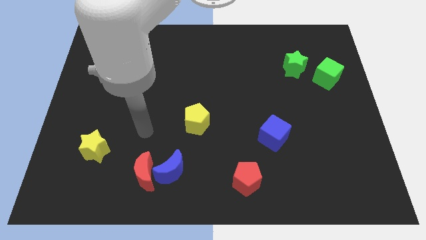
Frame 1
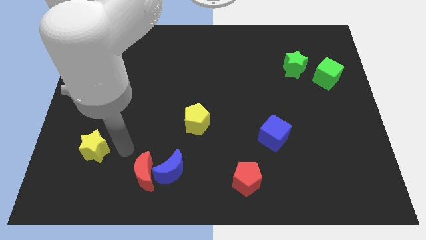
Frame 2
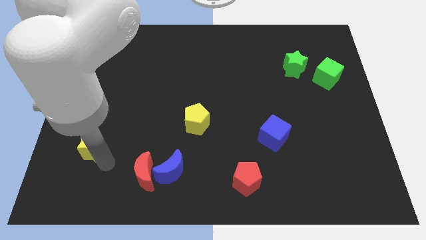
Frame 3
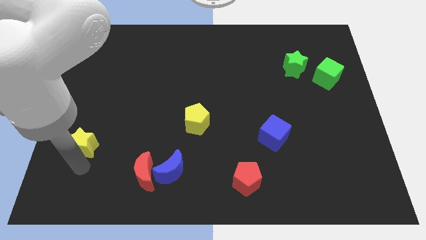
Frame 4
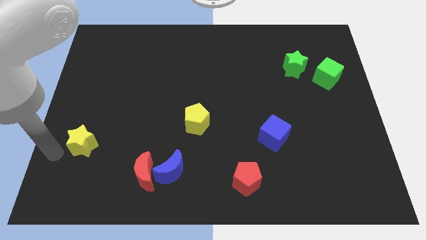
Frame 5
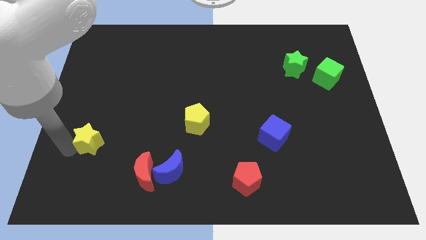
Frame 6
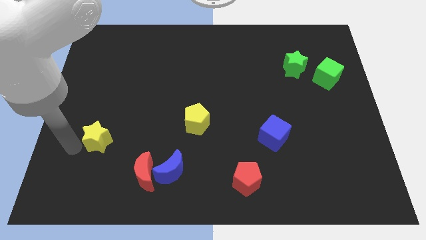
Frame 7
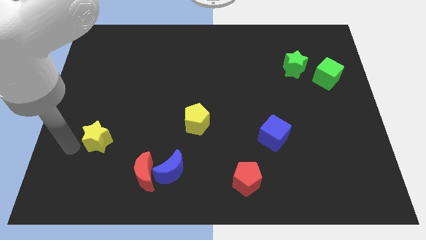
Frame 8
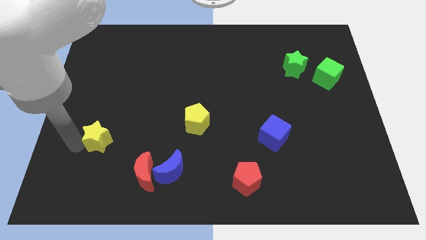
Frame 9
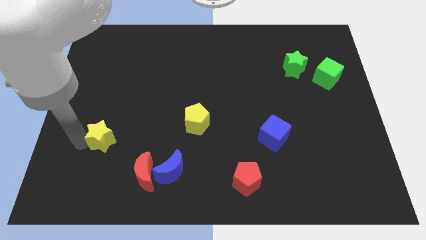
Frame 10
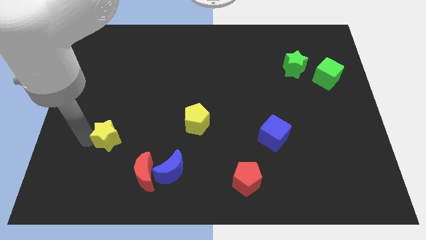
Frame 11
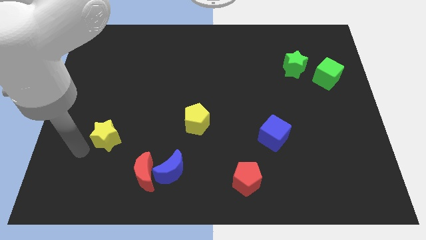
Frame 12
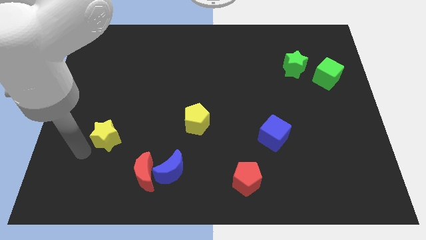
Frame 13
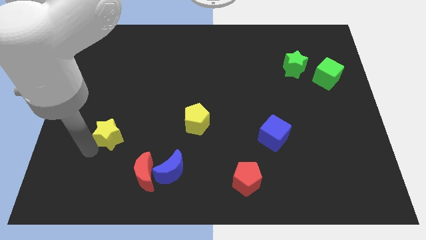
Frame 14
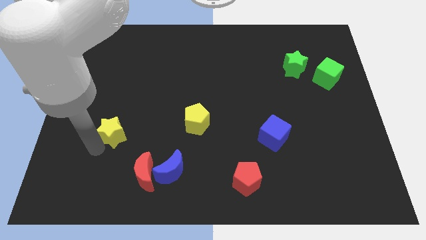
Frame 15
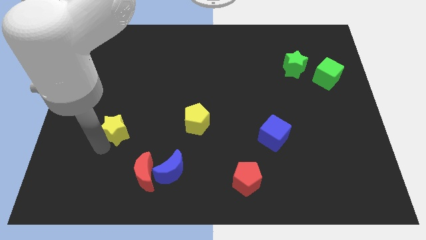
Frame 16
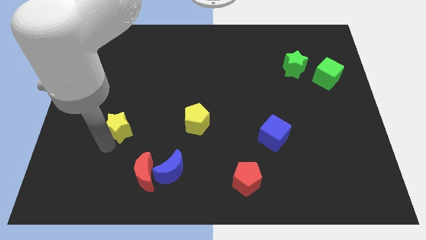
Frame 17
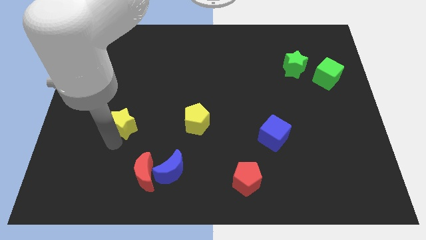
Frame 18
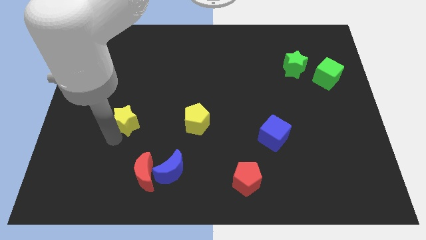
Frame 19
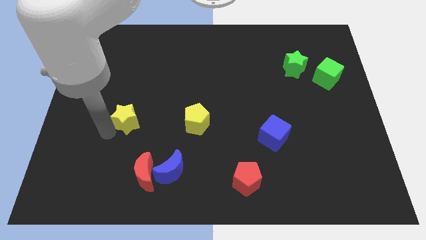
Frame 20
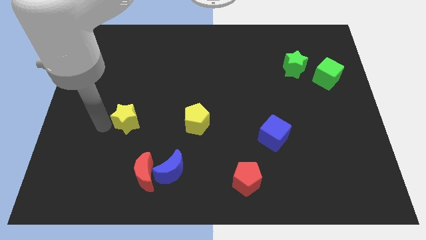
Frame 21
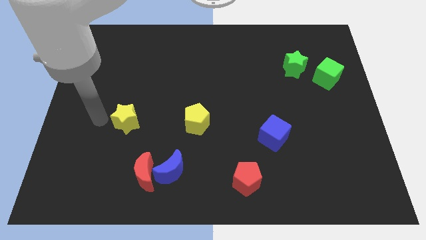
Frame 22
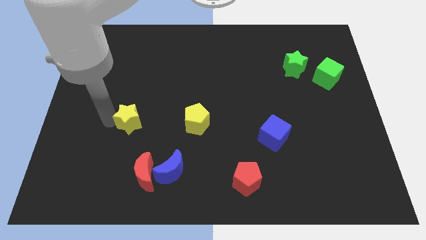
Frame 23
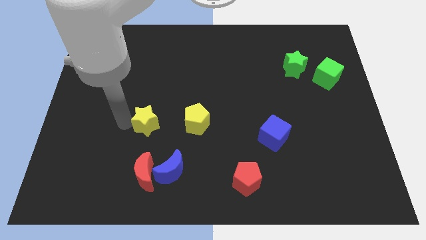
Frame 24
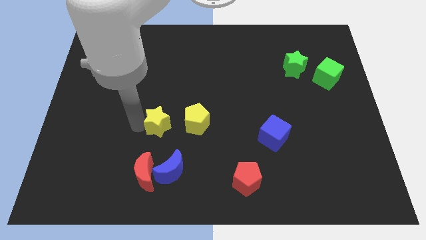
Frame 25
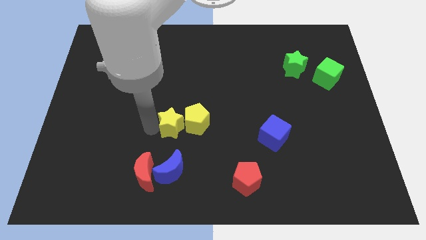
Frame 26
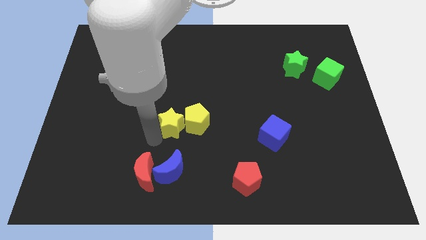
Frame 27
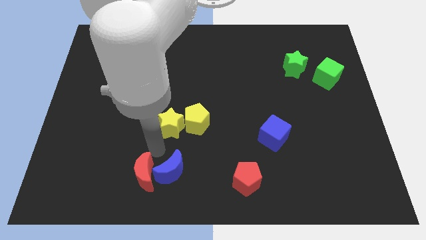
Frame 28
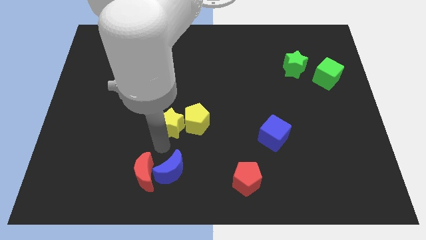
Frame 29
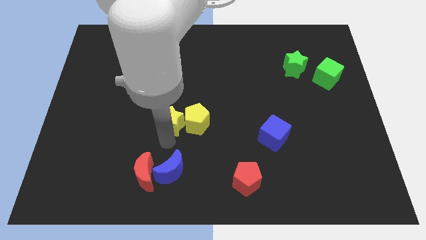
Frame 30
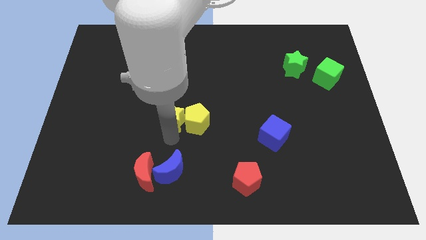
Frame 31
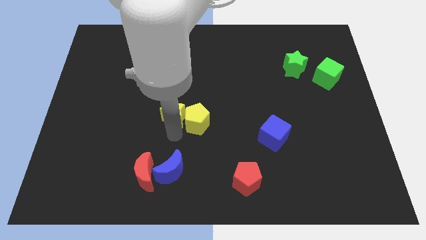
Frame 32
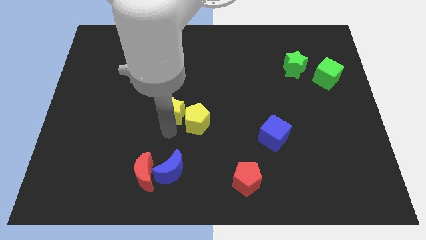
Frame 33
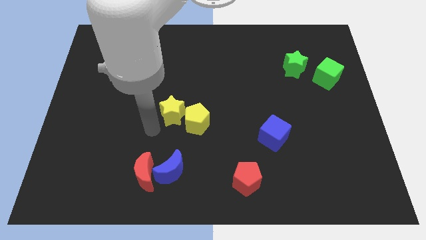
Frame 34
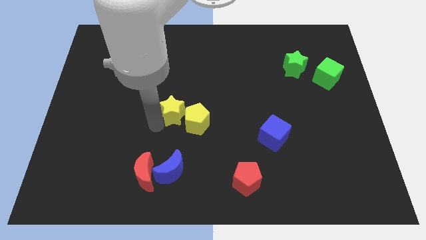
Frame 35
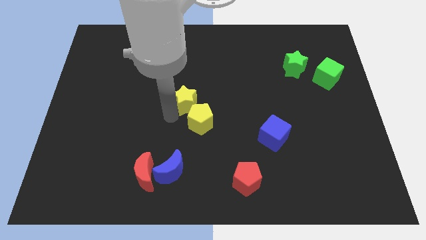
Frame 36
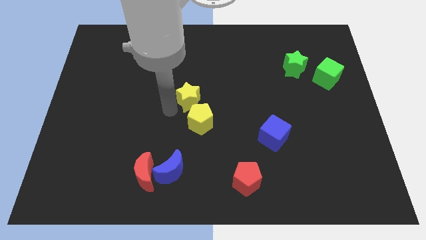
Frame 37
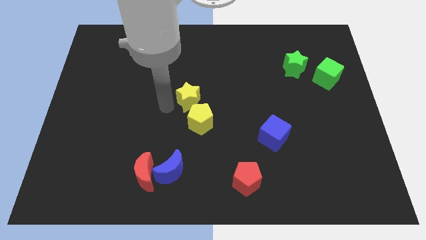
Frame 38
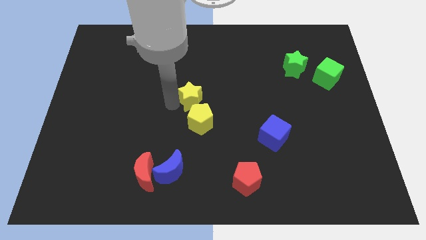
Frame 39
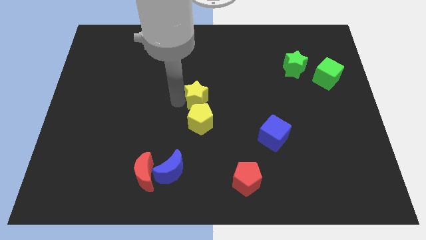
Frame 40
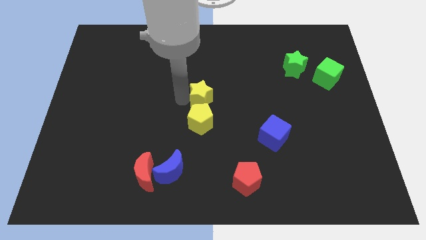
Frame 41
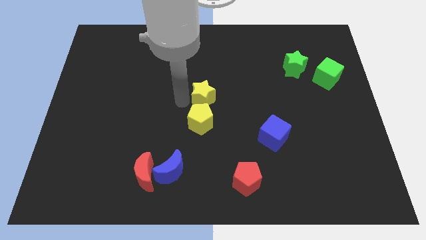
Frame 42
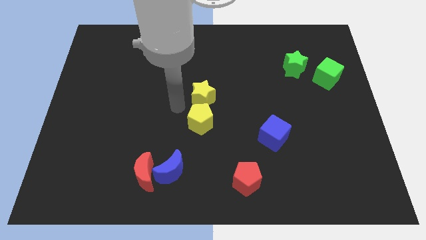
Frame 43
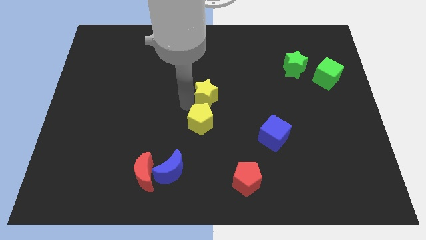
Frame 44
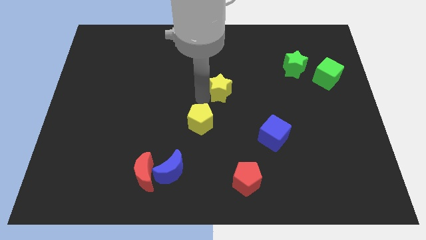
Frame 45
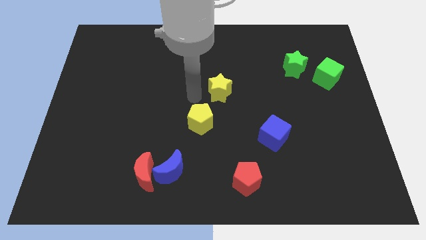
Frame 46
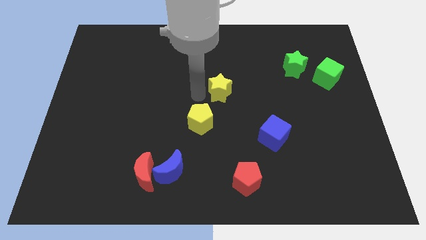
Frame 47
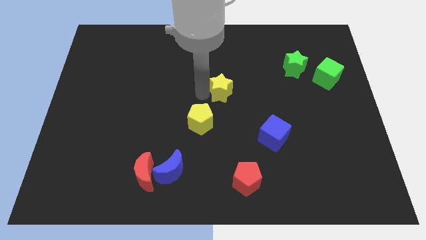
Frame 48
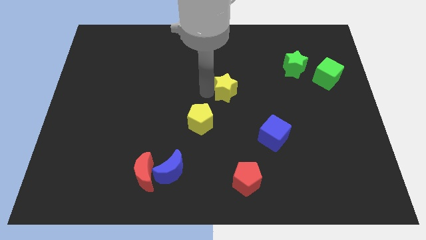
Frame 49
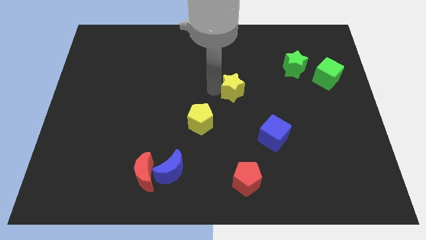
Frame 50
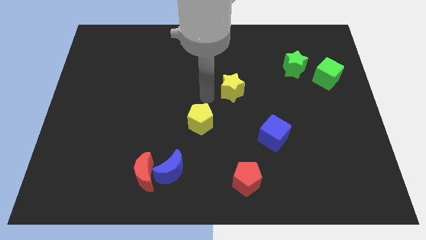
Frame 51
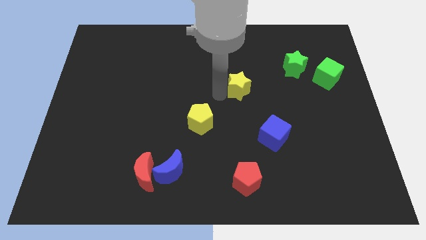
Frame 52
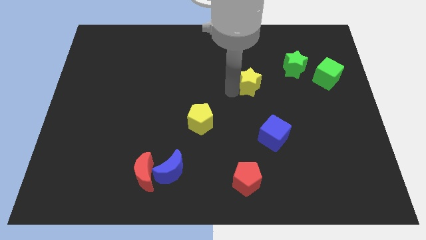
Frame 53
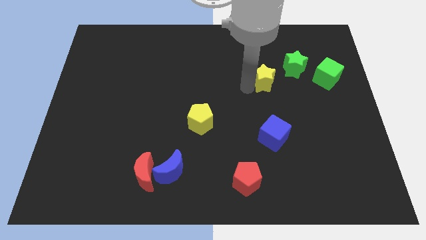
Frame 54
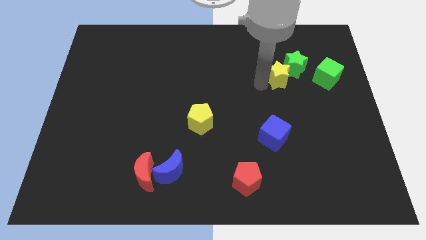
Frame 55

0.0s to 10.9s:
put the yellow star close to the green star

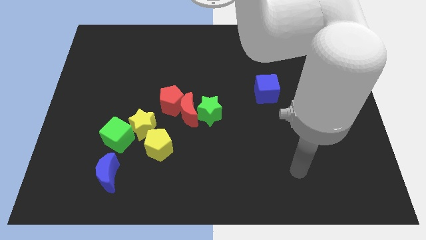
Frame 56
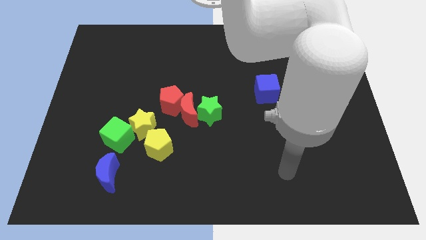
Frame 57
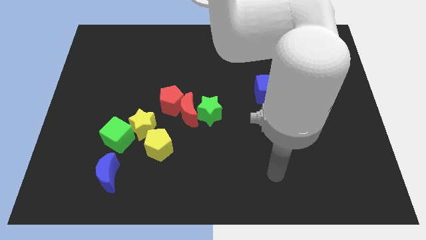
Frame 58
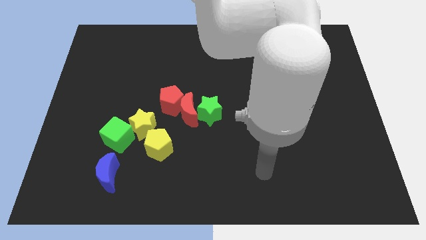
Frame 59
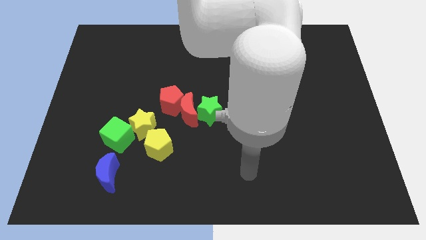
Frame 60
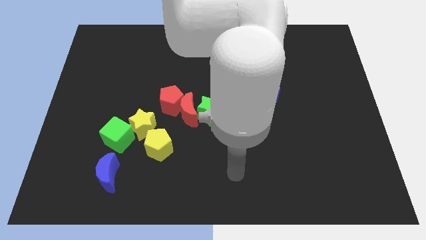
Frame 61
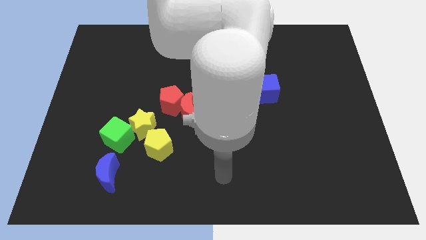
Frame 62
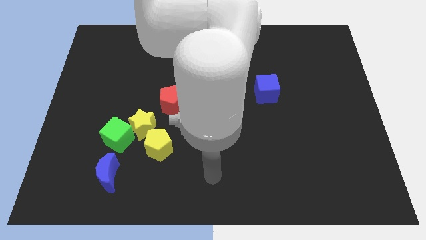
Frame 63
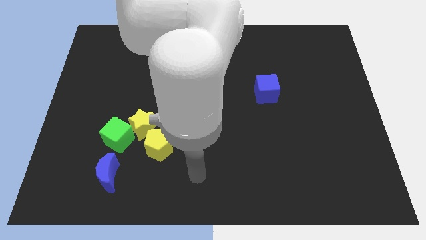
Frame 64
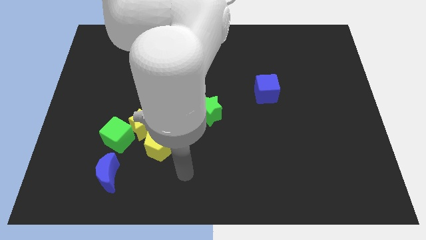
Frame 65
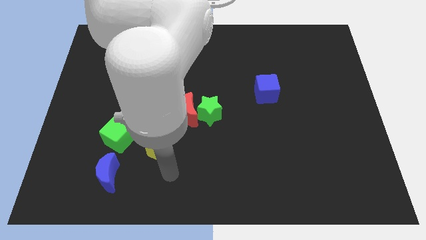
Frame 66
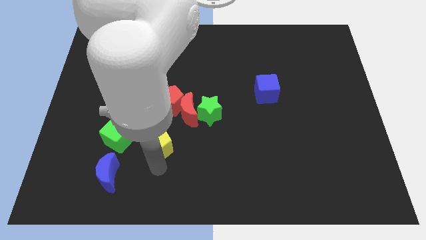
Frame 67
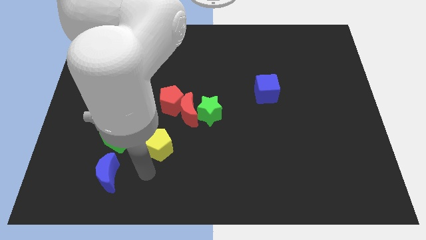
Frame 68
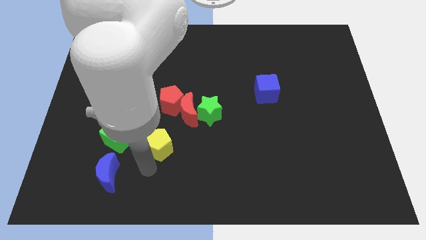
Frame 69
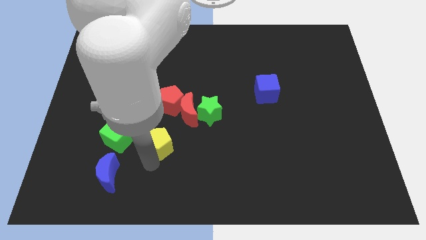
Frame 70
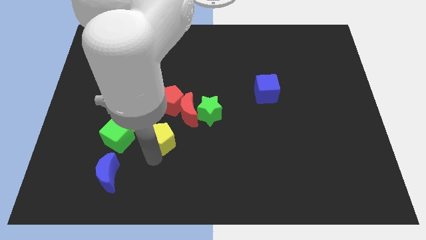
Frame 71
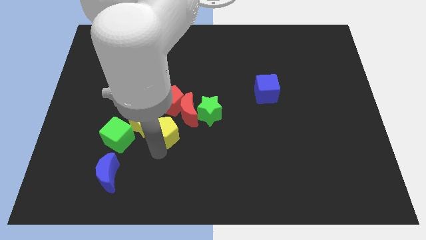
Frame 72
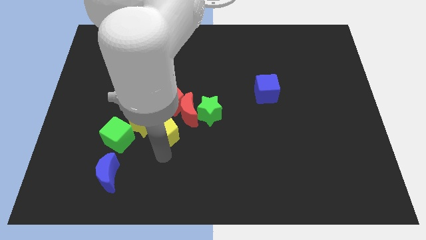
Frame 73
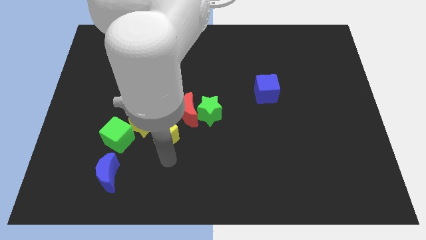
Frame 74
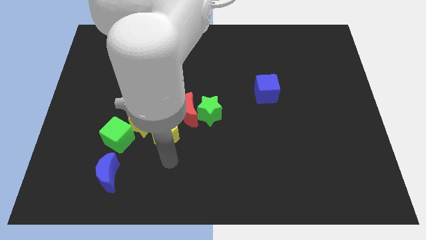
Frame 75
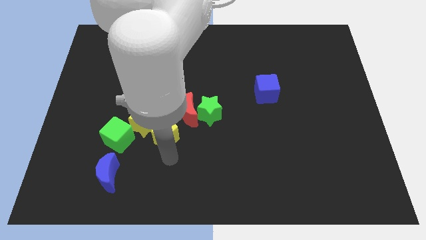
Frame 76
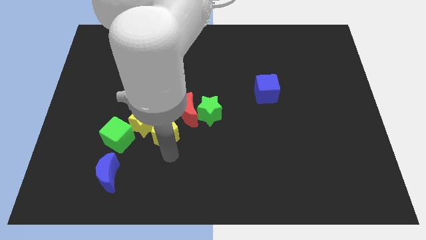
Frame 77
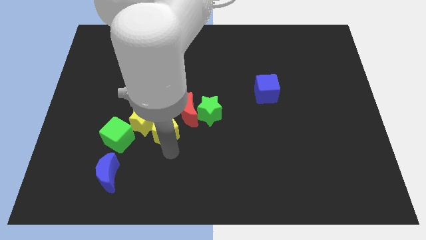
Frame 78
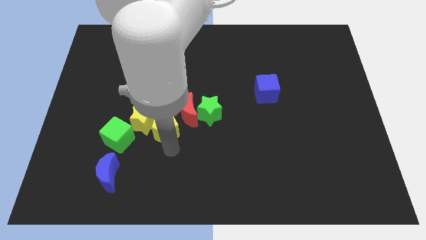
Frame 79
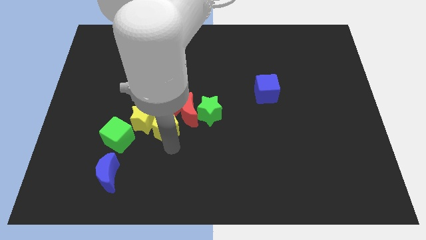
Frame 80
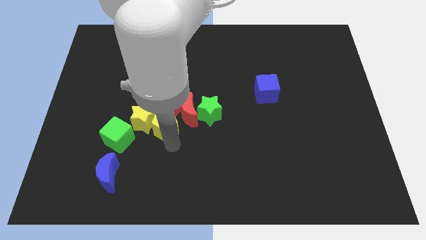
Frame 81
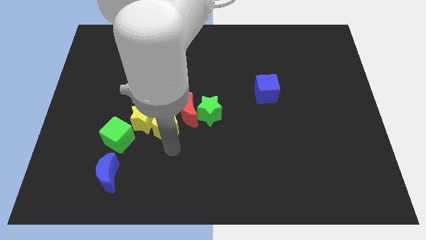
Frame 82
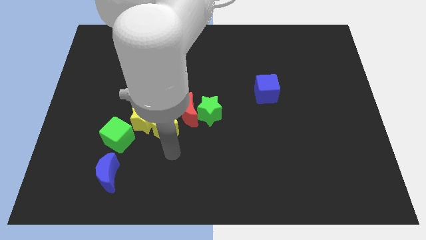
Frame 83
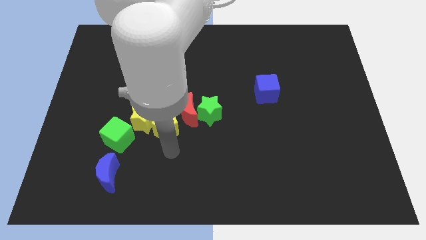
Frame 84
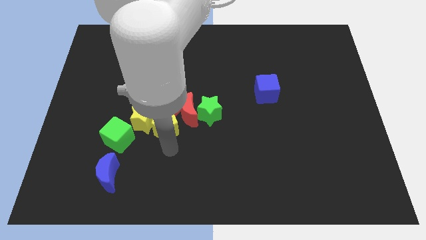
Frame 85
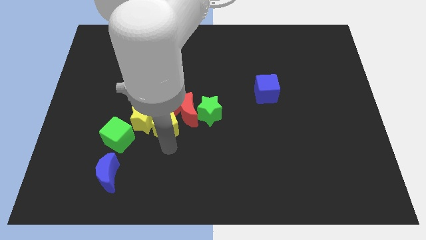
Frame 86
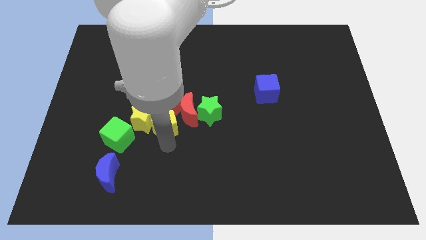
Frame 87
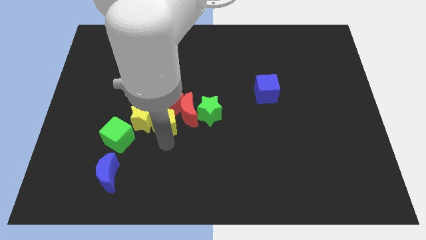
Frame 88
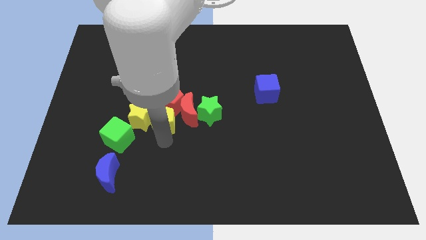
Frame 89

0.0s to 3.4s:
push the yellow pentagon next to the red pentagon
